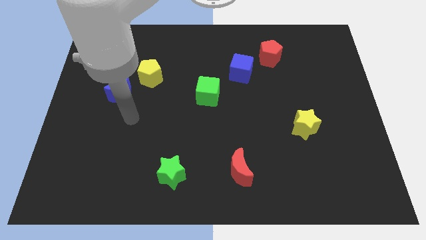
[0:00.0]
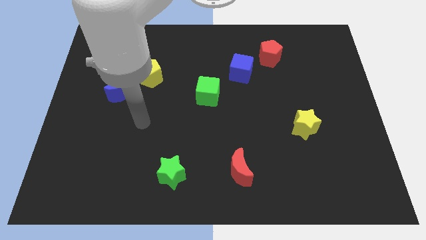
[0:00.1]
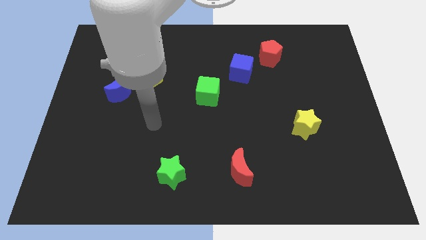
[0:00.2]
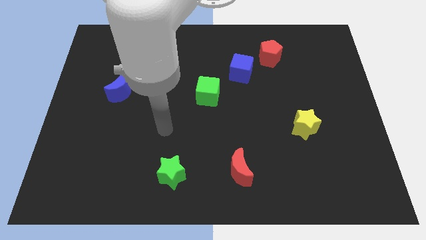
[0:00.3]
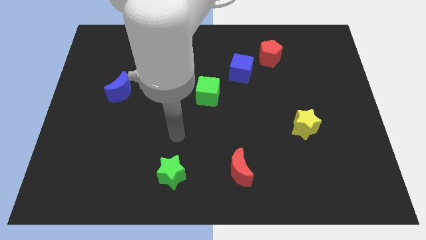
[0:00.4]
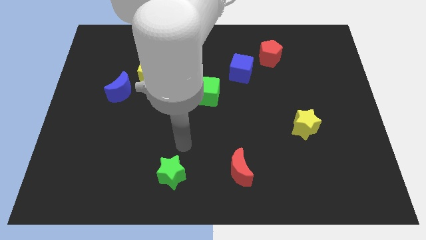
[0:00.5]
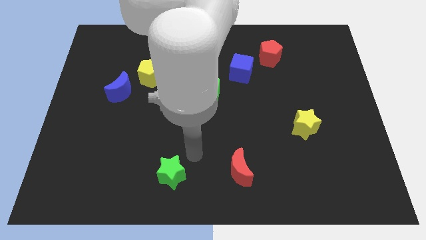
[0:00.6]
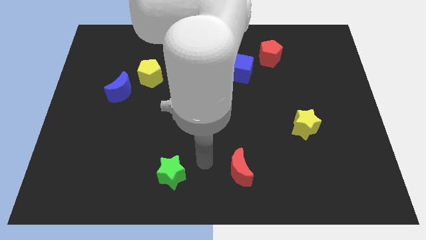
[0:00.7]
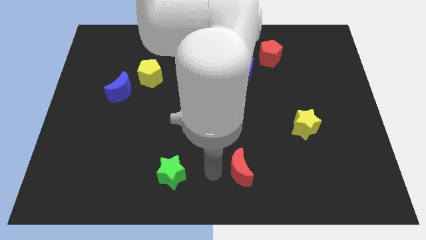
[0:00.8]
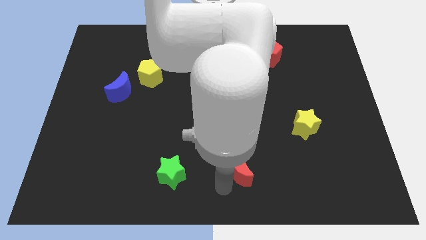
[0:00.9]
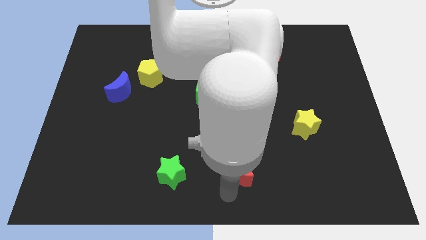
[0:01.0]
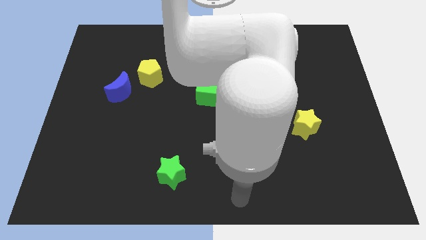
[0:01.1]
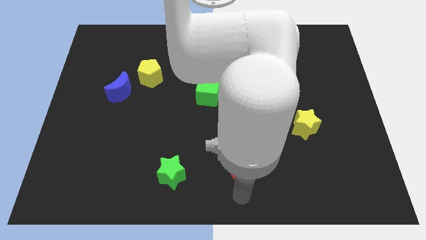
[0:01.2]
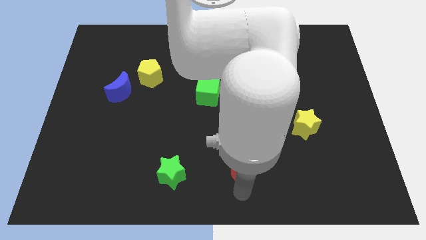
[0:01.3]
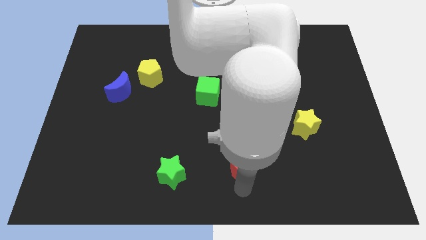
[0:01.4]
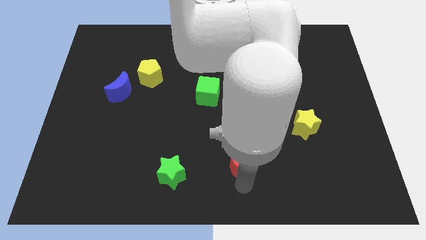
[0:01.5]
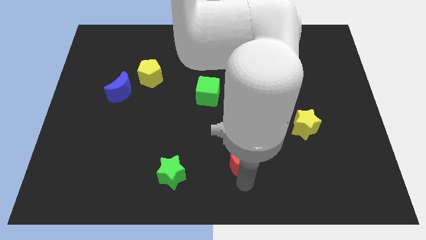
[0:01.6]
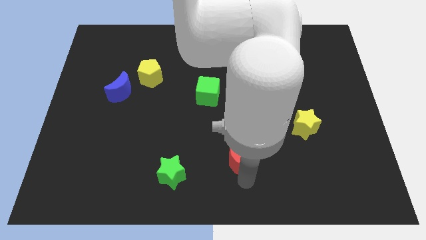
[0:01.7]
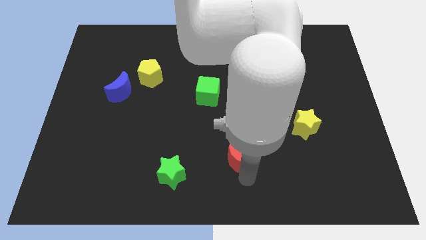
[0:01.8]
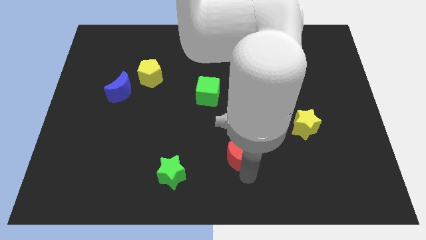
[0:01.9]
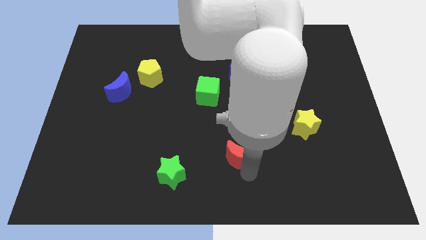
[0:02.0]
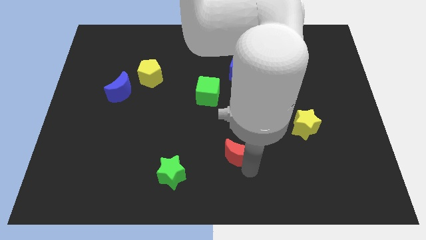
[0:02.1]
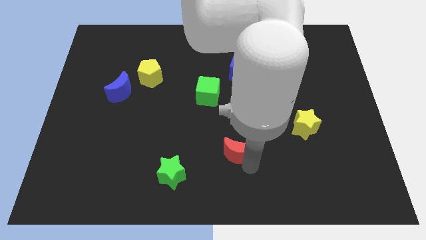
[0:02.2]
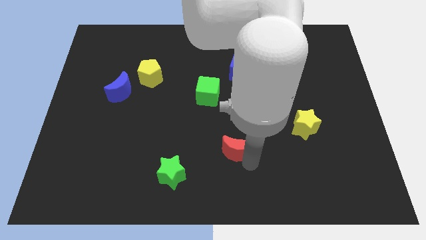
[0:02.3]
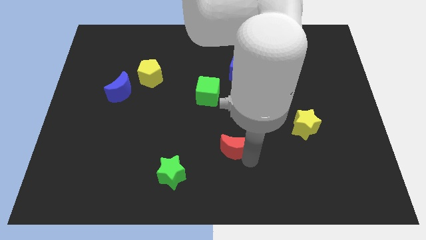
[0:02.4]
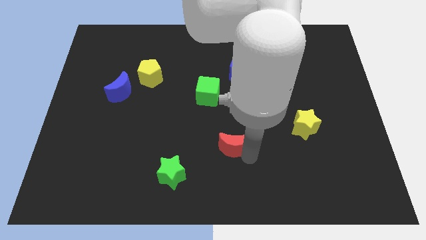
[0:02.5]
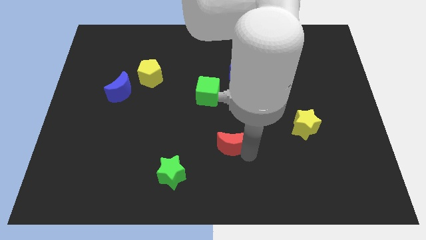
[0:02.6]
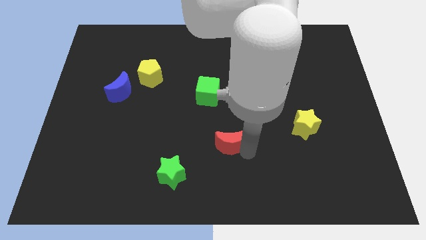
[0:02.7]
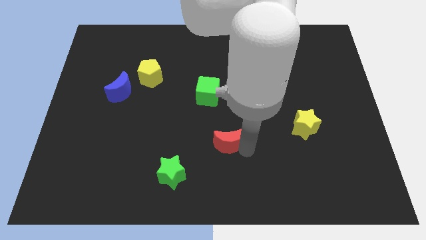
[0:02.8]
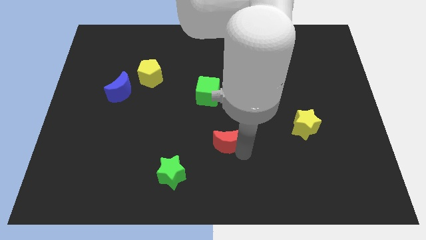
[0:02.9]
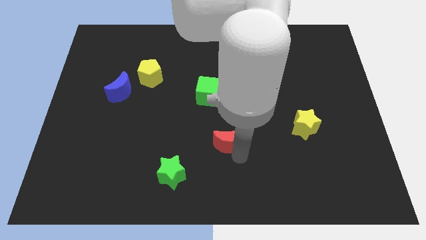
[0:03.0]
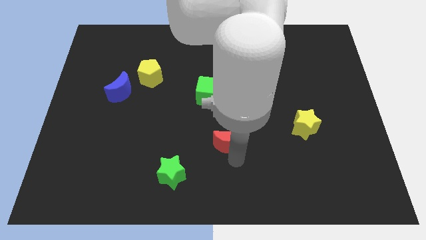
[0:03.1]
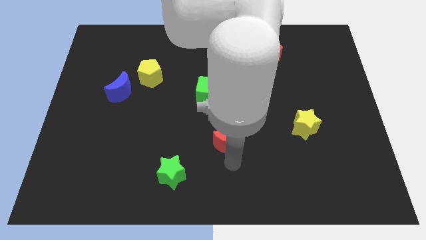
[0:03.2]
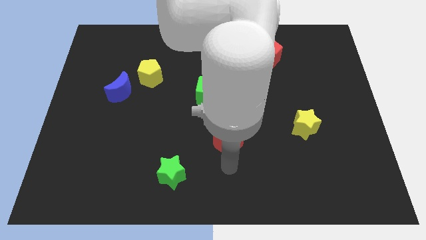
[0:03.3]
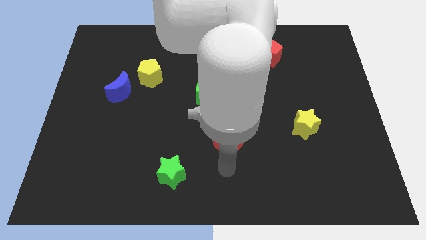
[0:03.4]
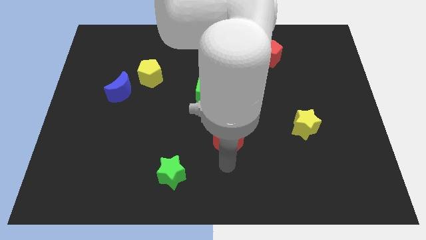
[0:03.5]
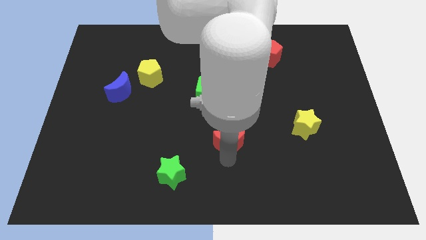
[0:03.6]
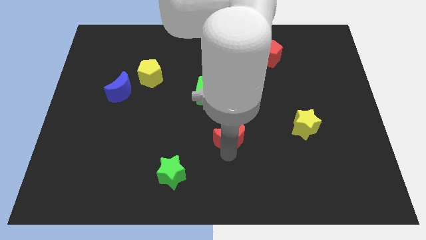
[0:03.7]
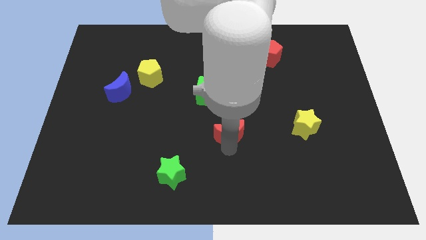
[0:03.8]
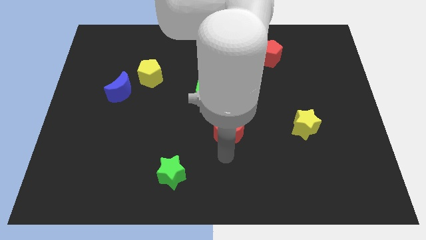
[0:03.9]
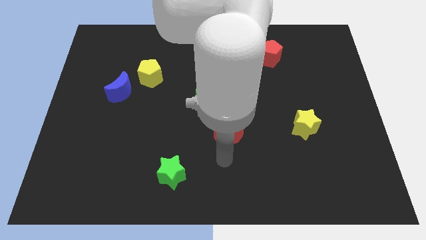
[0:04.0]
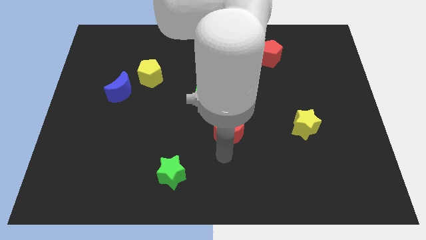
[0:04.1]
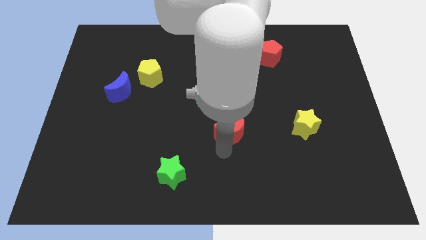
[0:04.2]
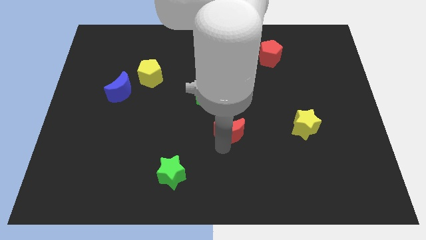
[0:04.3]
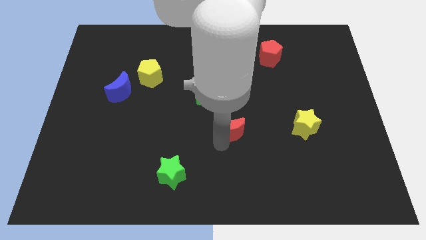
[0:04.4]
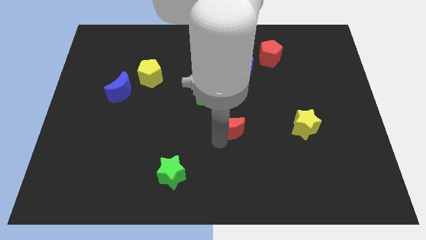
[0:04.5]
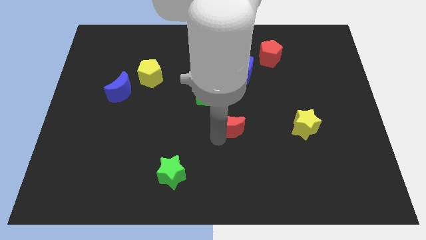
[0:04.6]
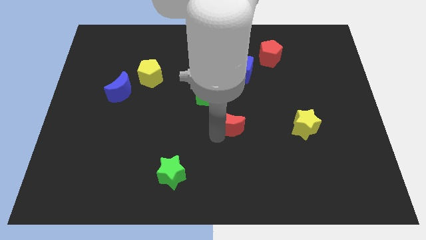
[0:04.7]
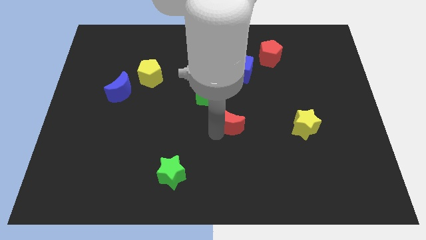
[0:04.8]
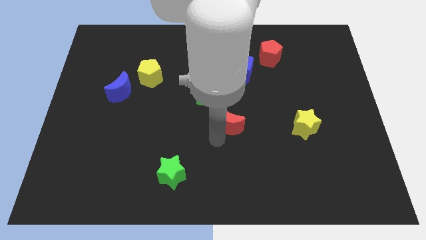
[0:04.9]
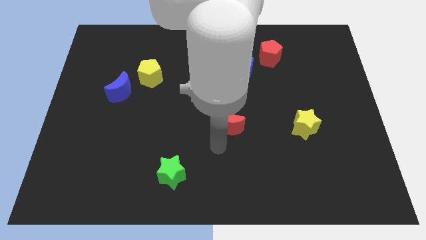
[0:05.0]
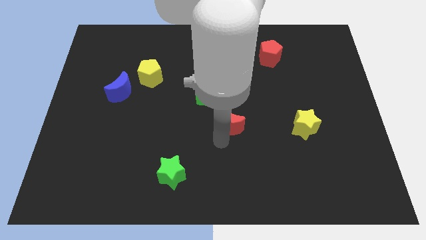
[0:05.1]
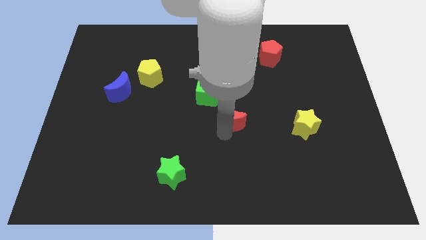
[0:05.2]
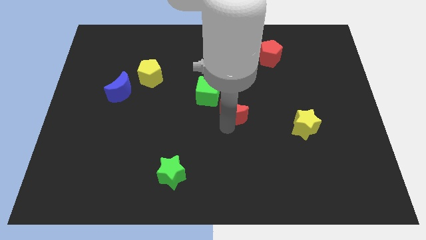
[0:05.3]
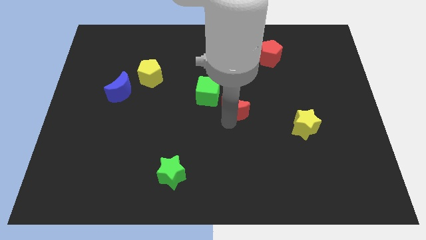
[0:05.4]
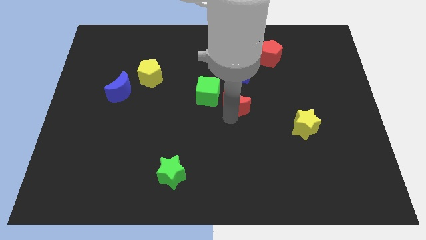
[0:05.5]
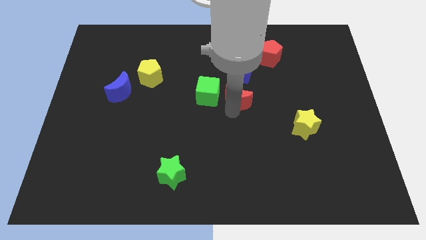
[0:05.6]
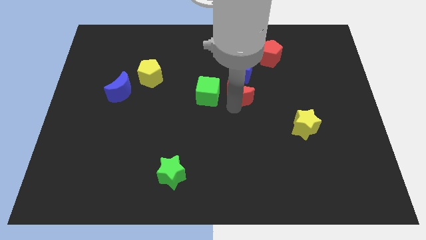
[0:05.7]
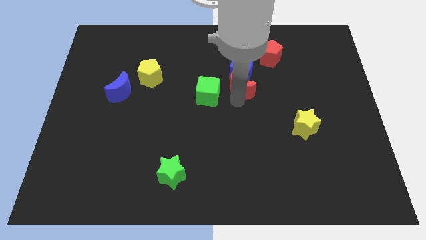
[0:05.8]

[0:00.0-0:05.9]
slide the red moon towards the blue cube

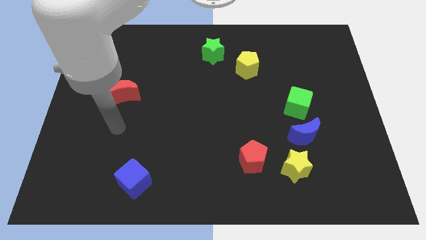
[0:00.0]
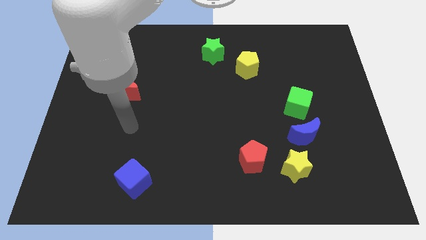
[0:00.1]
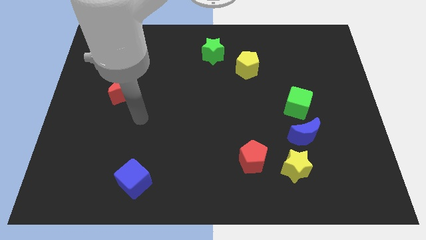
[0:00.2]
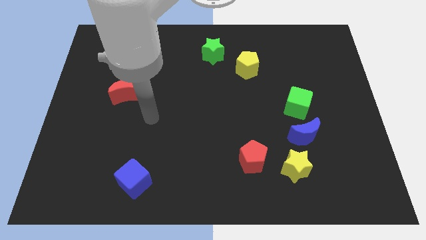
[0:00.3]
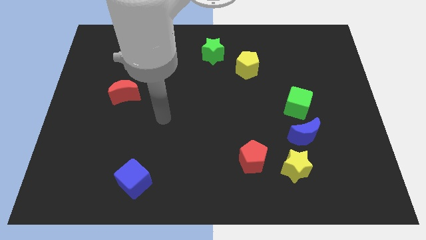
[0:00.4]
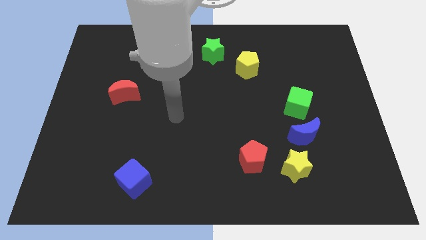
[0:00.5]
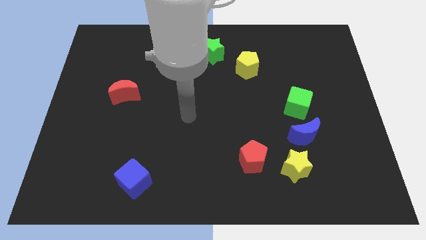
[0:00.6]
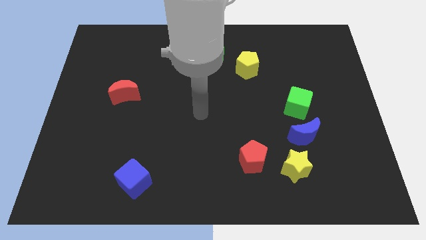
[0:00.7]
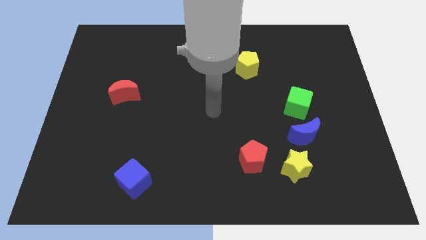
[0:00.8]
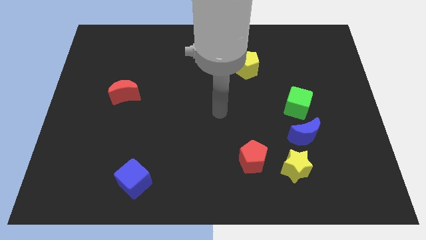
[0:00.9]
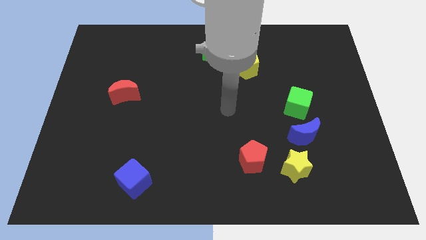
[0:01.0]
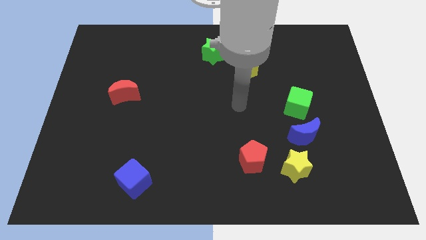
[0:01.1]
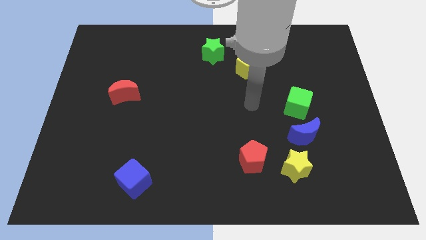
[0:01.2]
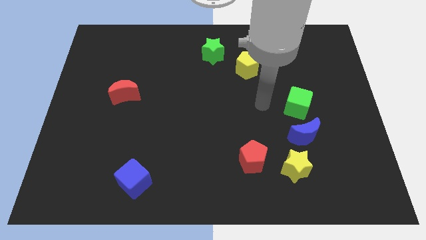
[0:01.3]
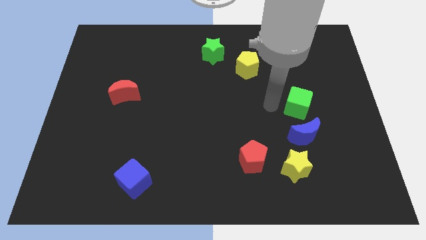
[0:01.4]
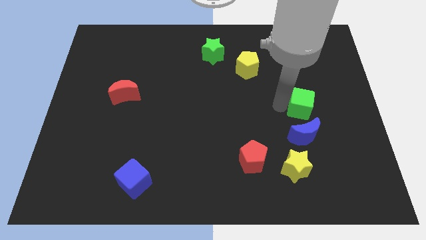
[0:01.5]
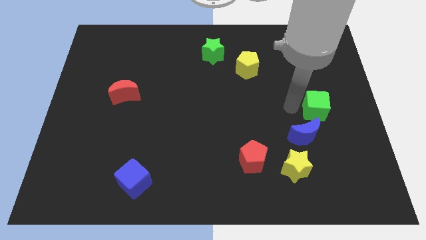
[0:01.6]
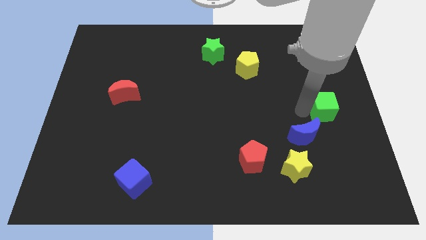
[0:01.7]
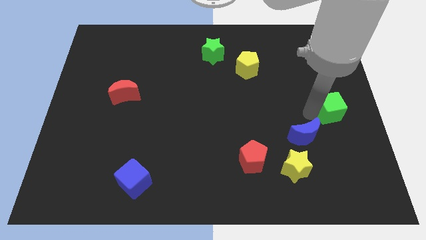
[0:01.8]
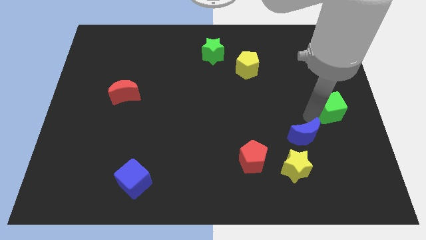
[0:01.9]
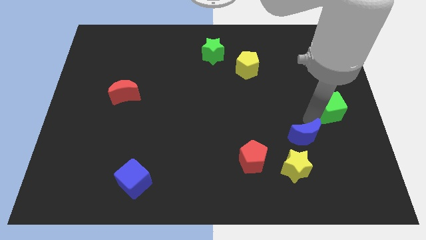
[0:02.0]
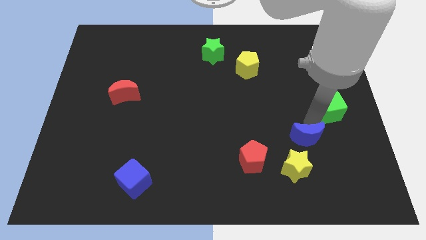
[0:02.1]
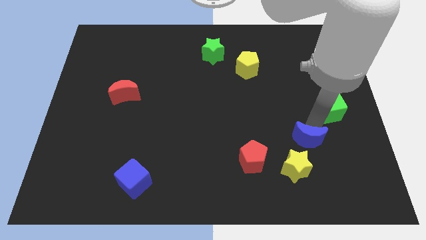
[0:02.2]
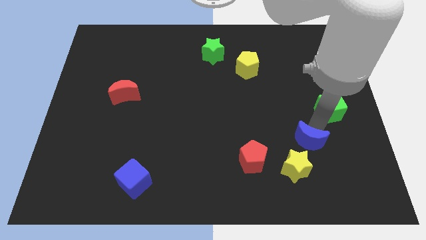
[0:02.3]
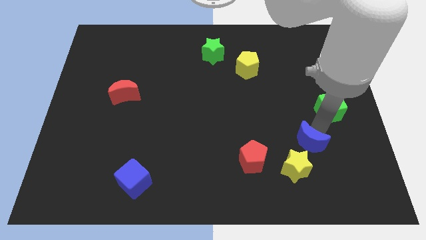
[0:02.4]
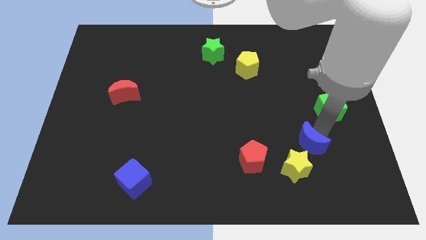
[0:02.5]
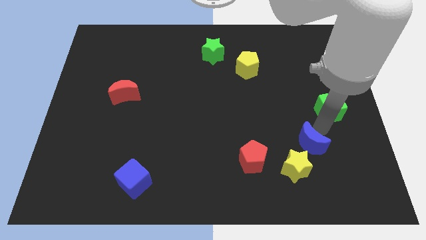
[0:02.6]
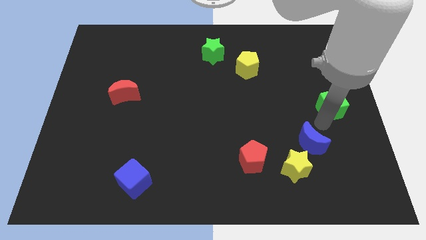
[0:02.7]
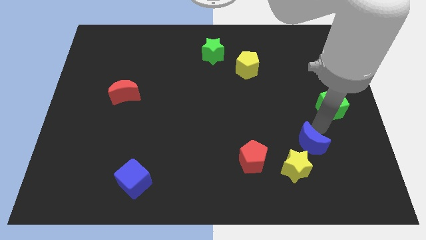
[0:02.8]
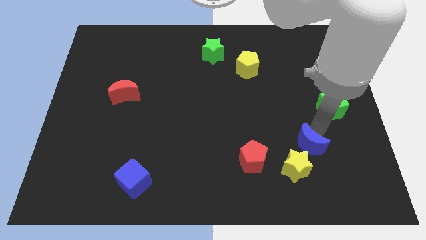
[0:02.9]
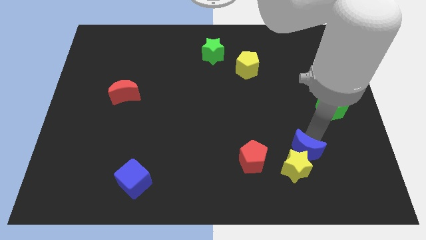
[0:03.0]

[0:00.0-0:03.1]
push the blue moon towards the yellow star
